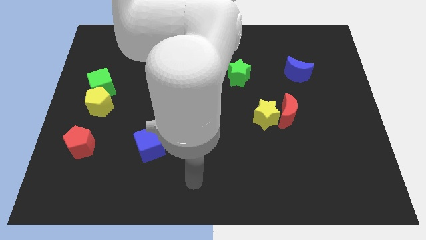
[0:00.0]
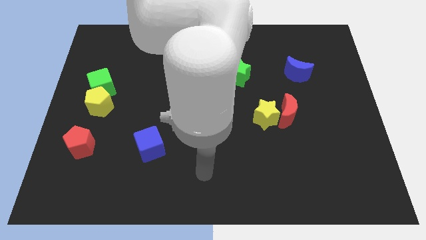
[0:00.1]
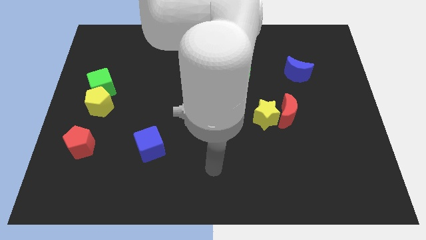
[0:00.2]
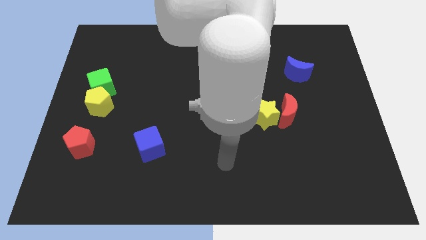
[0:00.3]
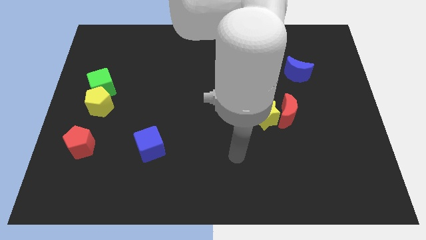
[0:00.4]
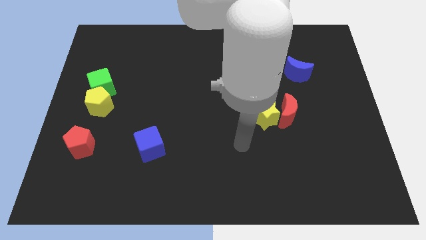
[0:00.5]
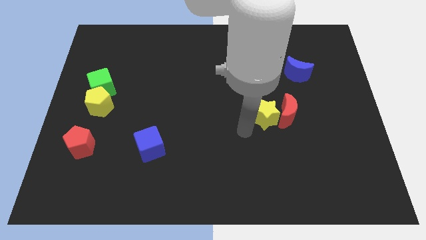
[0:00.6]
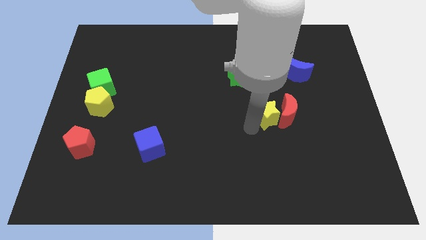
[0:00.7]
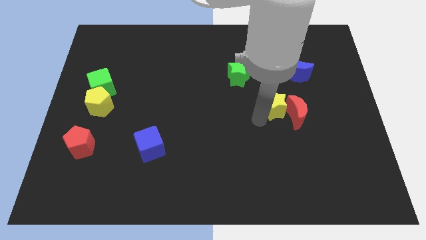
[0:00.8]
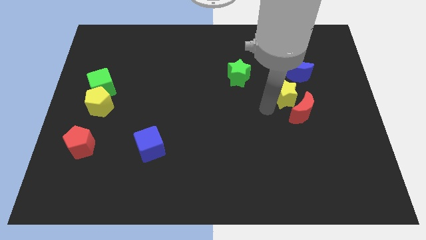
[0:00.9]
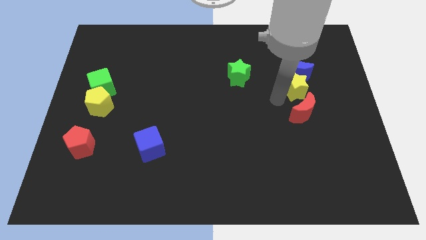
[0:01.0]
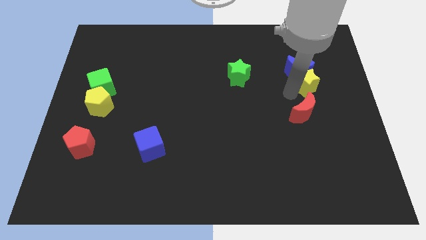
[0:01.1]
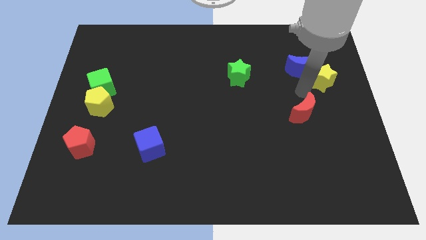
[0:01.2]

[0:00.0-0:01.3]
pull the red moon apart from the yellow star

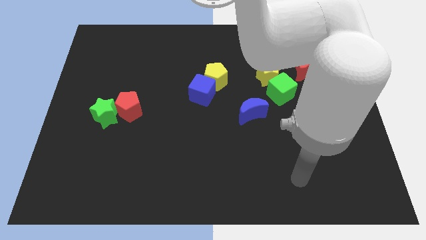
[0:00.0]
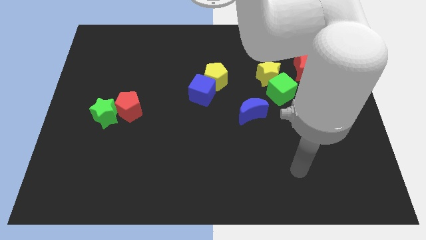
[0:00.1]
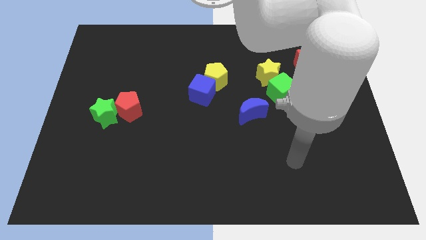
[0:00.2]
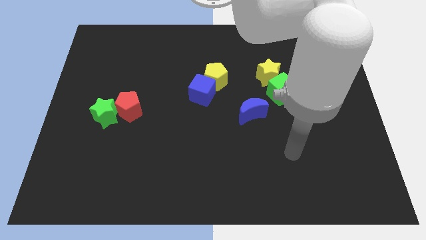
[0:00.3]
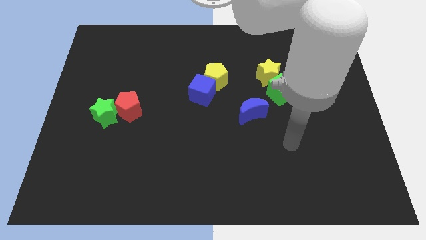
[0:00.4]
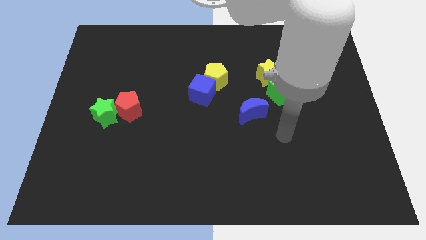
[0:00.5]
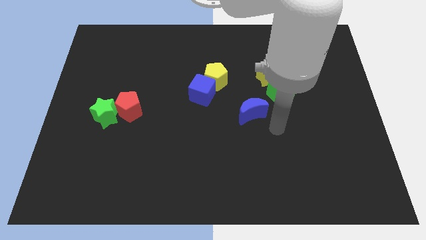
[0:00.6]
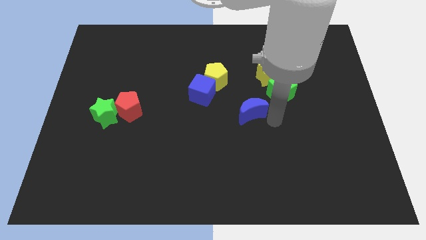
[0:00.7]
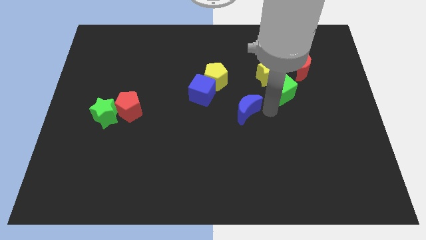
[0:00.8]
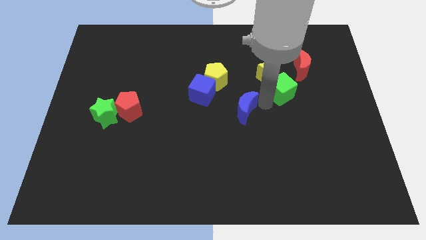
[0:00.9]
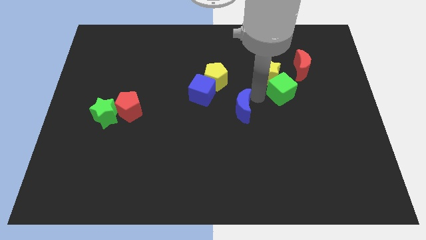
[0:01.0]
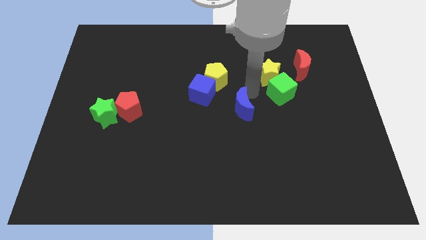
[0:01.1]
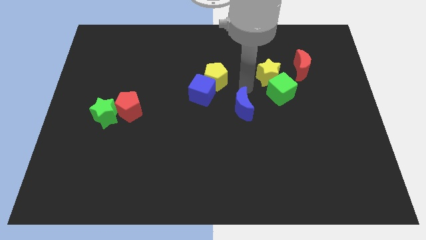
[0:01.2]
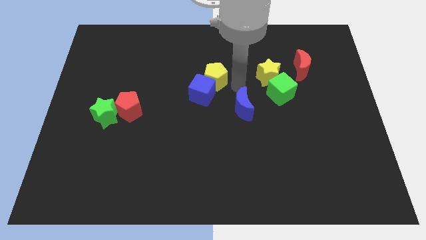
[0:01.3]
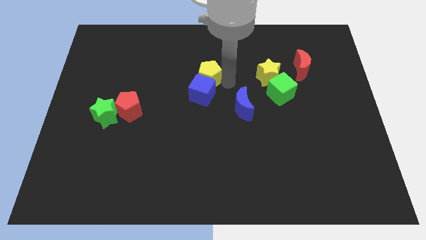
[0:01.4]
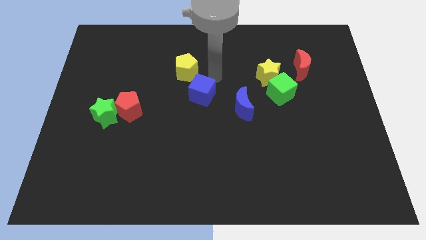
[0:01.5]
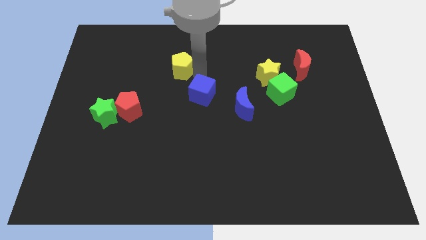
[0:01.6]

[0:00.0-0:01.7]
separate the blue cube from the yellow pentagon

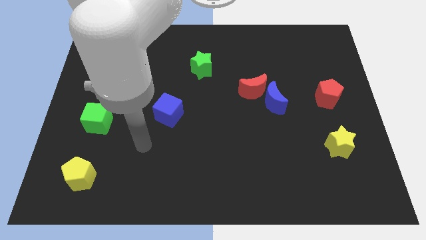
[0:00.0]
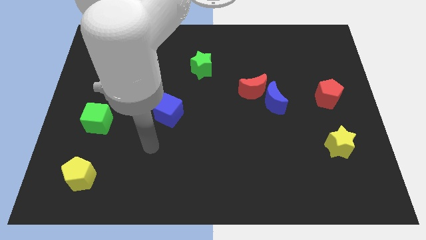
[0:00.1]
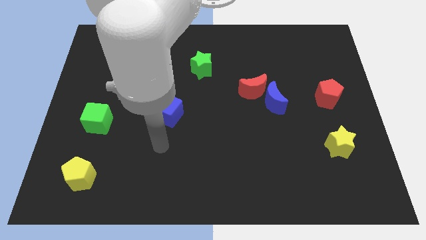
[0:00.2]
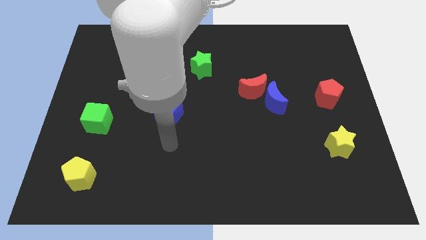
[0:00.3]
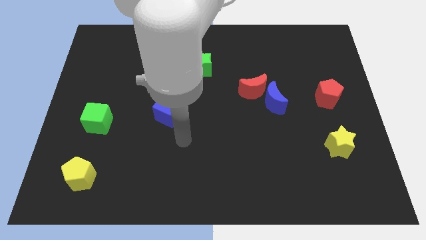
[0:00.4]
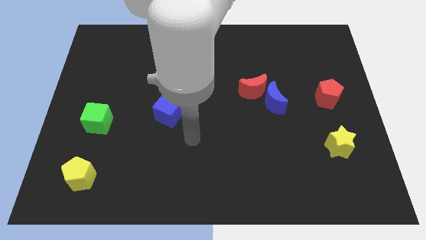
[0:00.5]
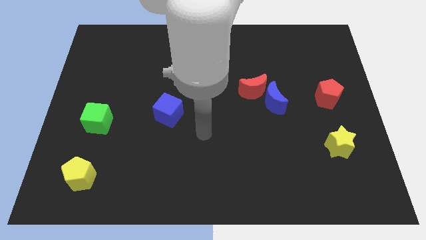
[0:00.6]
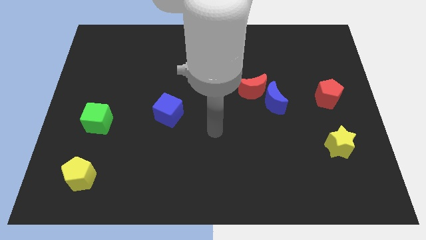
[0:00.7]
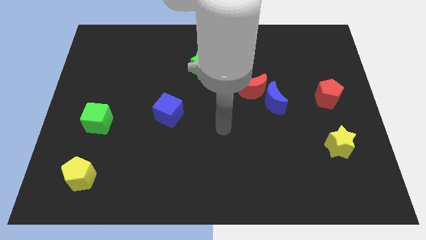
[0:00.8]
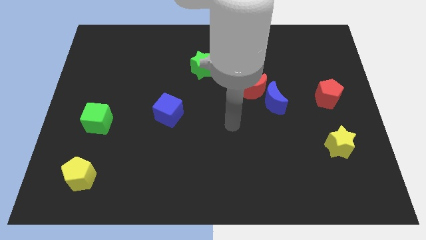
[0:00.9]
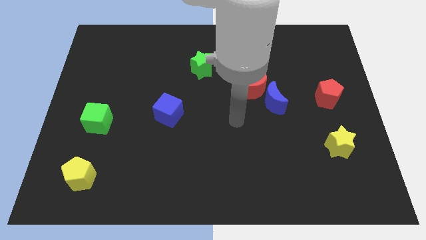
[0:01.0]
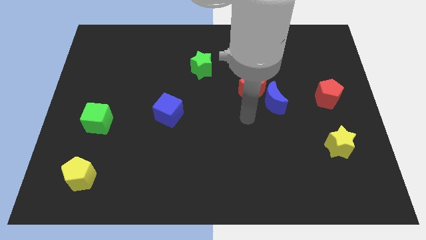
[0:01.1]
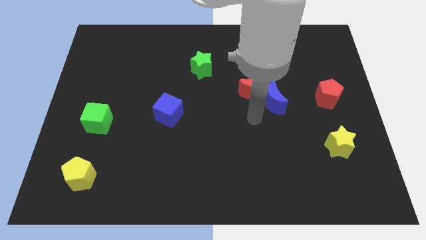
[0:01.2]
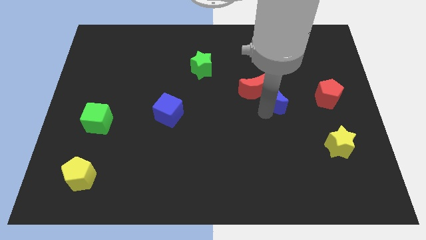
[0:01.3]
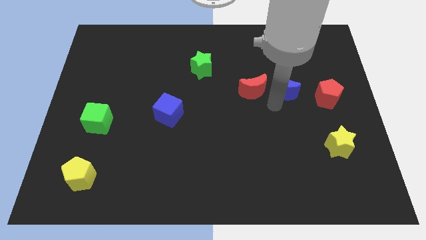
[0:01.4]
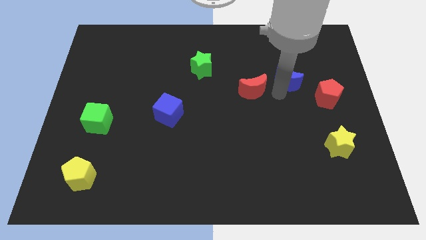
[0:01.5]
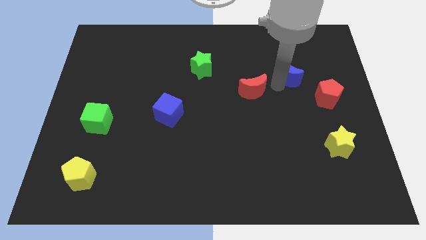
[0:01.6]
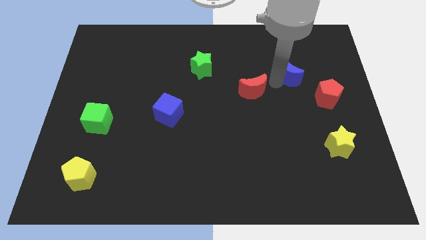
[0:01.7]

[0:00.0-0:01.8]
separate the red moon from the blue moon

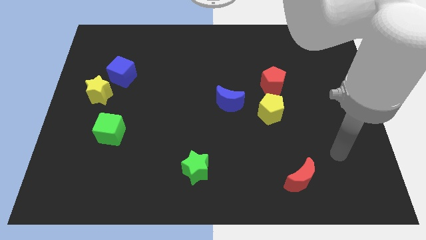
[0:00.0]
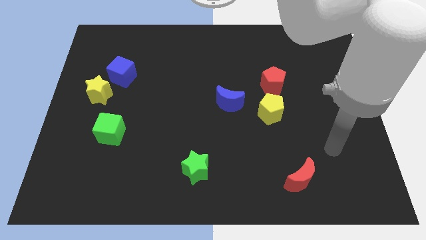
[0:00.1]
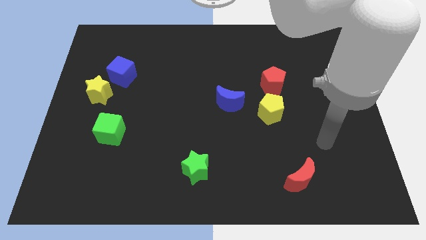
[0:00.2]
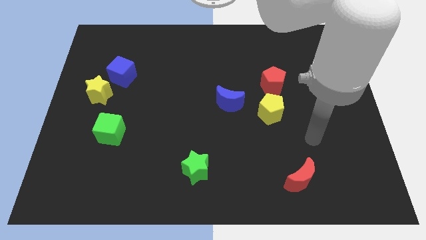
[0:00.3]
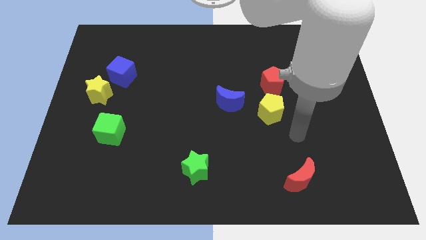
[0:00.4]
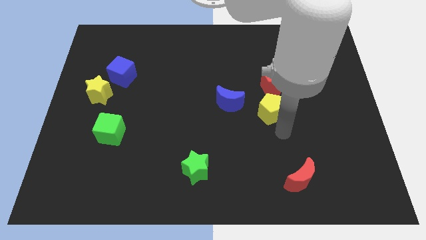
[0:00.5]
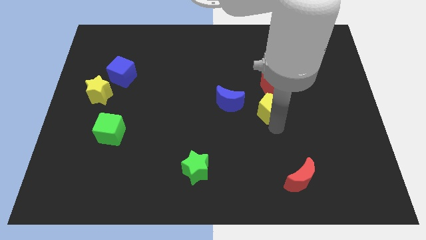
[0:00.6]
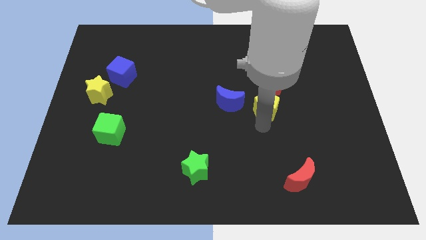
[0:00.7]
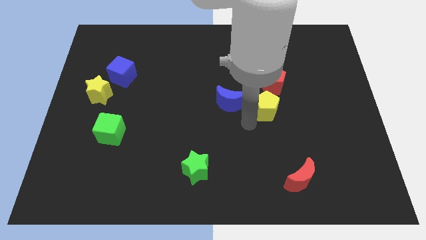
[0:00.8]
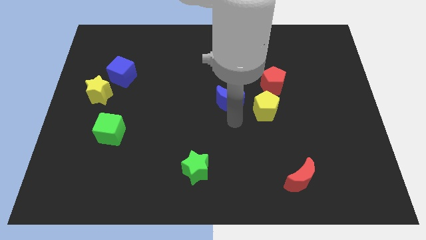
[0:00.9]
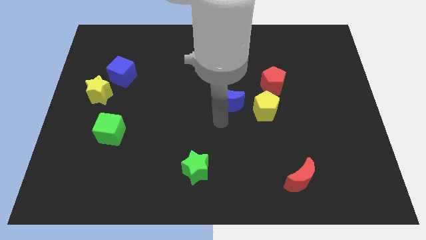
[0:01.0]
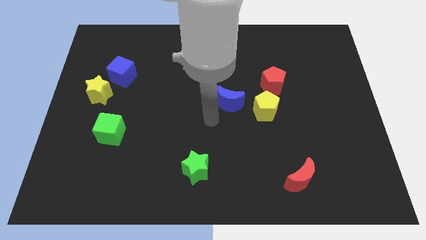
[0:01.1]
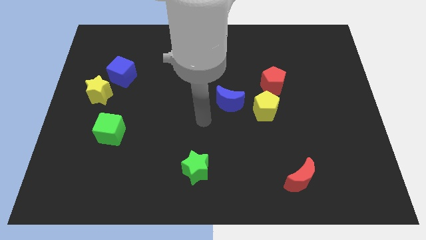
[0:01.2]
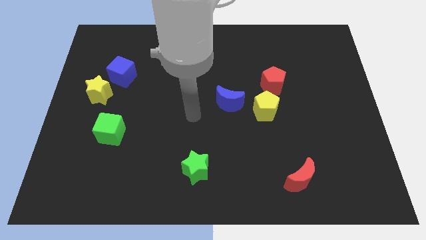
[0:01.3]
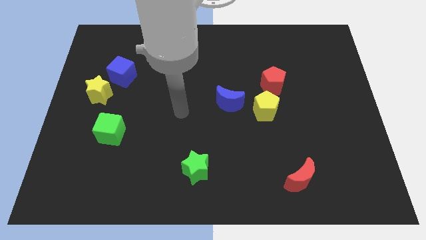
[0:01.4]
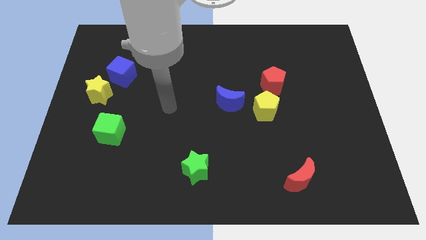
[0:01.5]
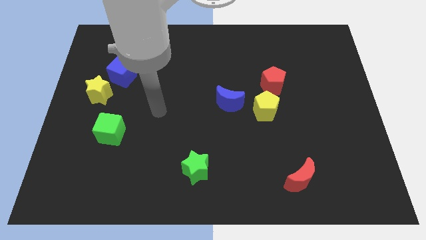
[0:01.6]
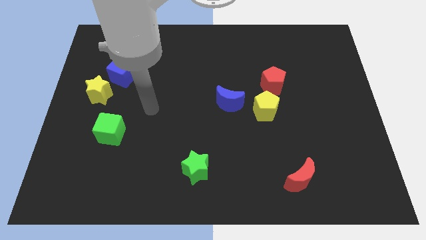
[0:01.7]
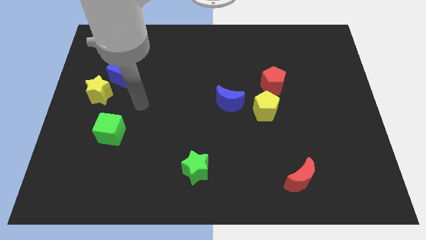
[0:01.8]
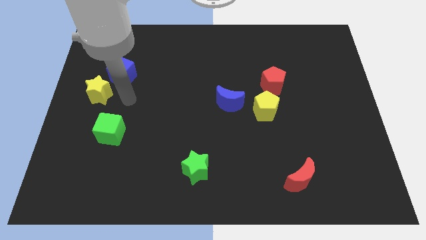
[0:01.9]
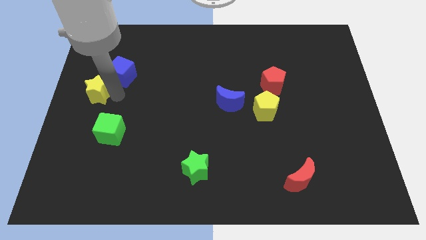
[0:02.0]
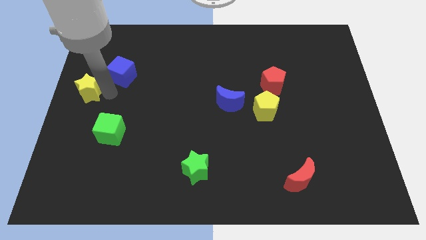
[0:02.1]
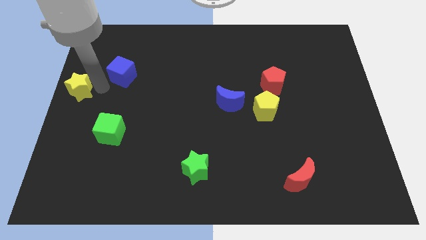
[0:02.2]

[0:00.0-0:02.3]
separate the blue cube from the yellow star

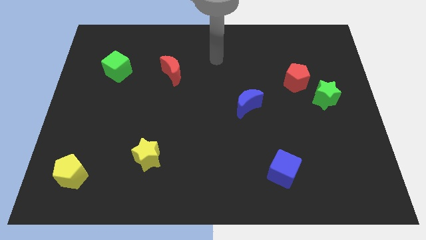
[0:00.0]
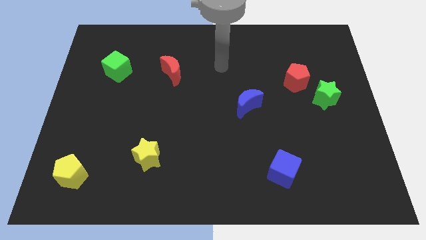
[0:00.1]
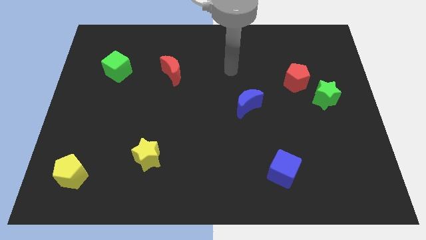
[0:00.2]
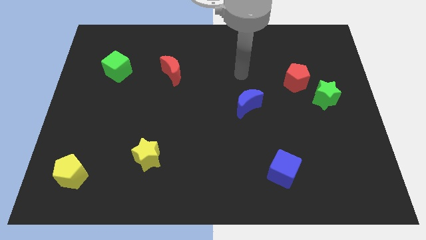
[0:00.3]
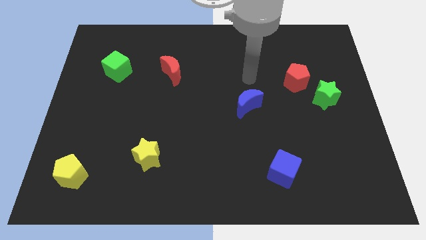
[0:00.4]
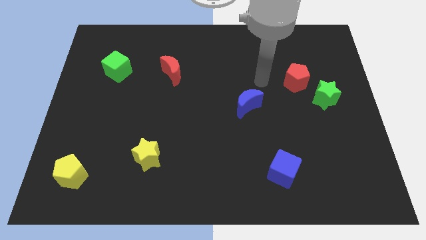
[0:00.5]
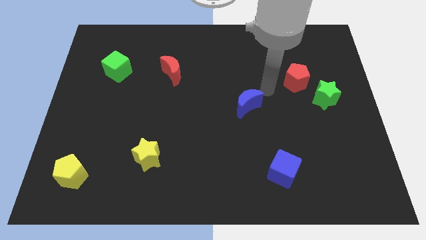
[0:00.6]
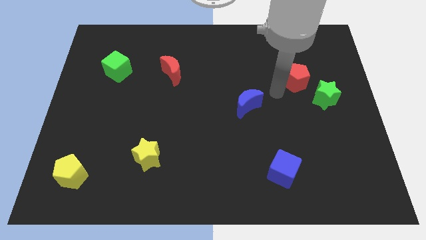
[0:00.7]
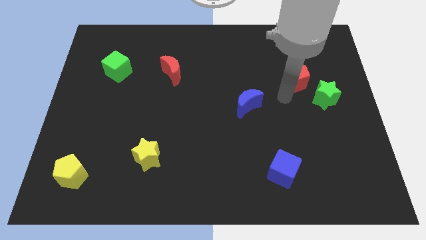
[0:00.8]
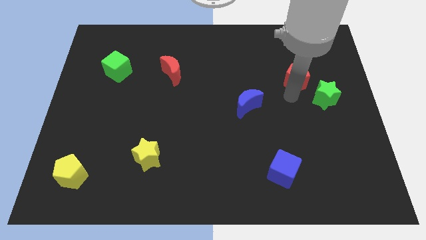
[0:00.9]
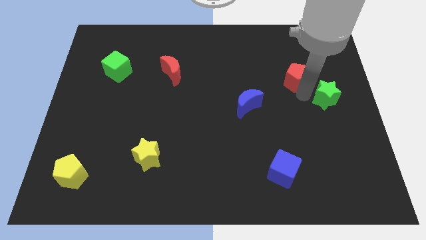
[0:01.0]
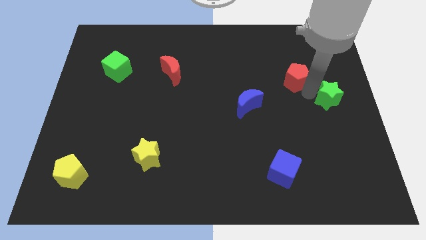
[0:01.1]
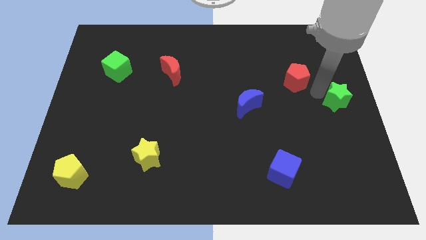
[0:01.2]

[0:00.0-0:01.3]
separate the red pentagon from the green star

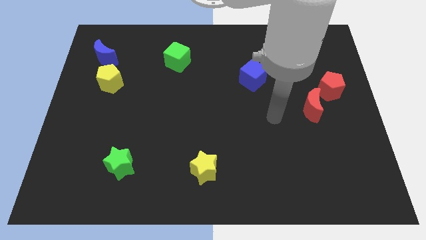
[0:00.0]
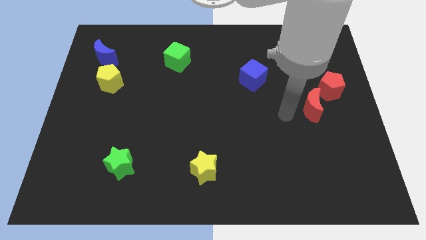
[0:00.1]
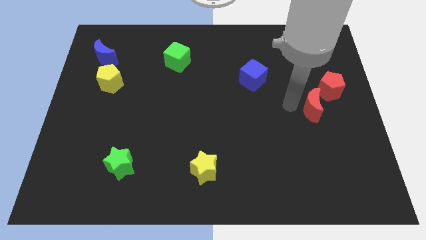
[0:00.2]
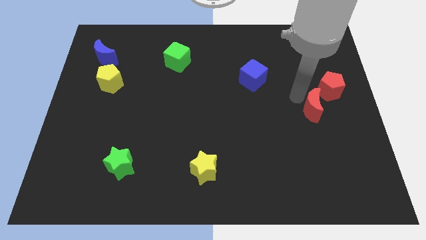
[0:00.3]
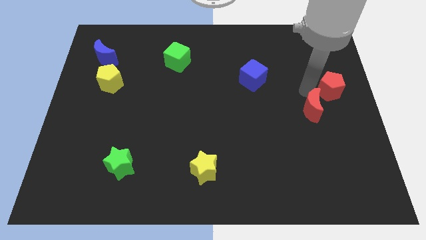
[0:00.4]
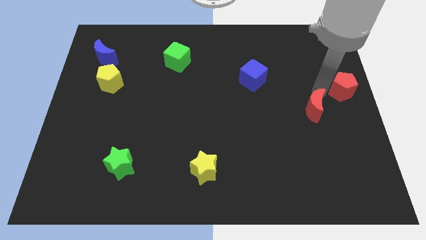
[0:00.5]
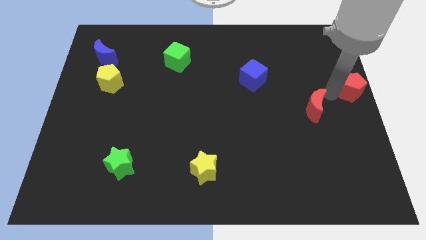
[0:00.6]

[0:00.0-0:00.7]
separate the red moon from the red pentagon

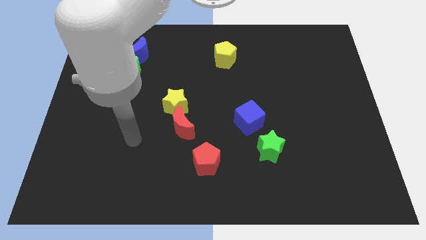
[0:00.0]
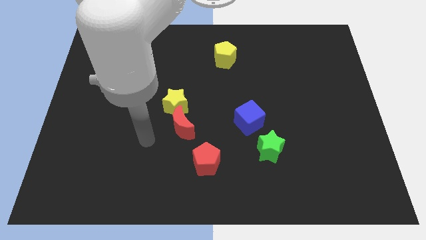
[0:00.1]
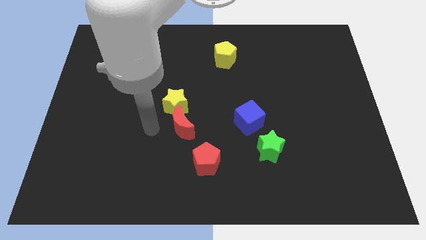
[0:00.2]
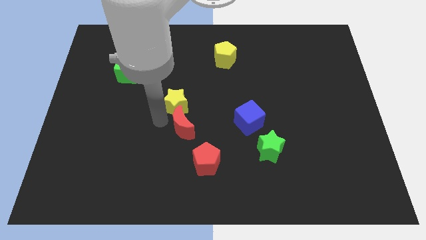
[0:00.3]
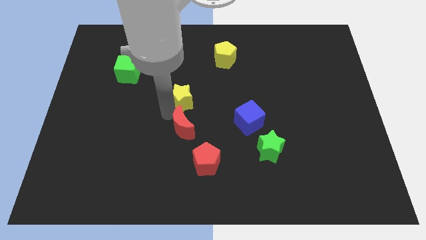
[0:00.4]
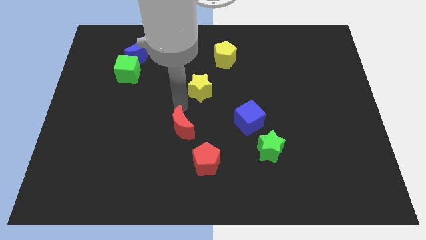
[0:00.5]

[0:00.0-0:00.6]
separate the red moon from the yellow star
